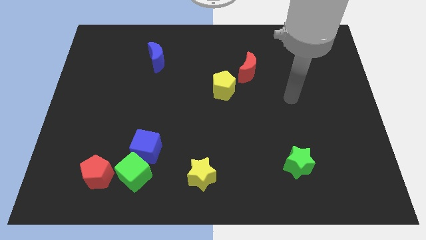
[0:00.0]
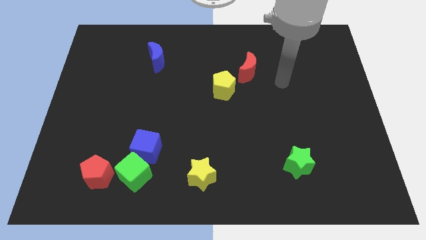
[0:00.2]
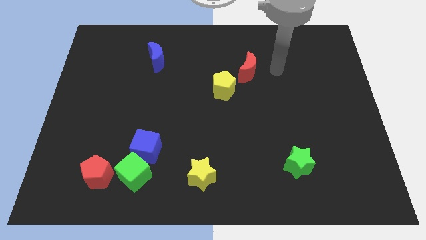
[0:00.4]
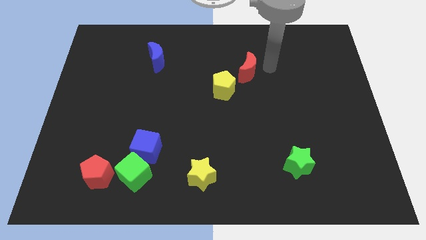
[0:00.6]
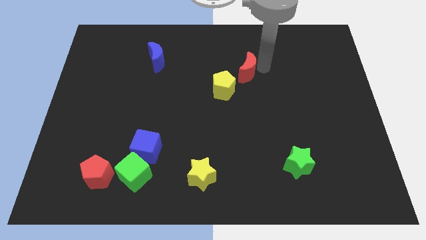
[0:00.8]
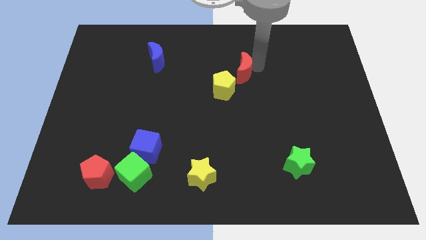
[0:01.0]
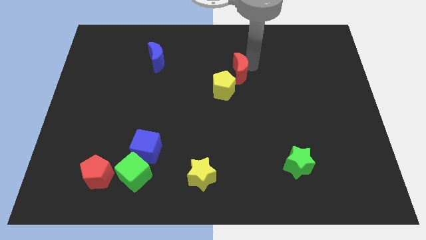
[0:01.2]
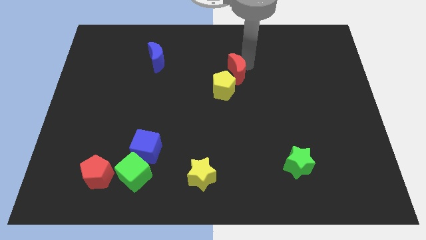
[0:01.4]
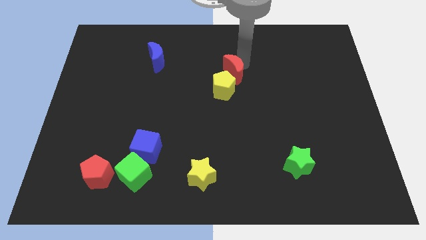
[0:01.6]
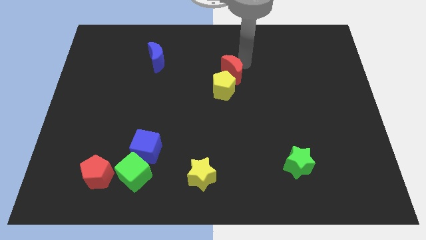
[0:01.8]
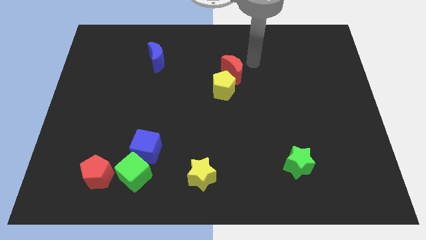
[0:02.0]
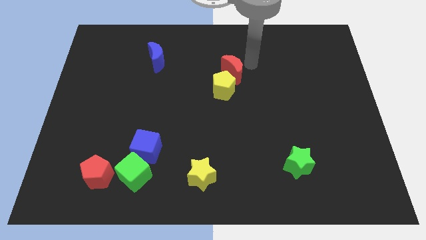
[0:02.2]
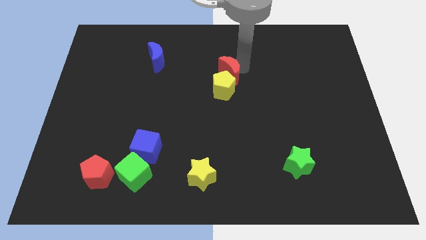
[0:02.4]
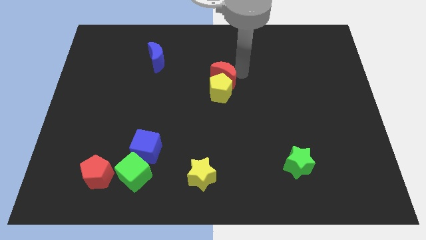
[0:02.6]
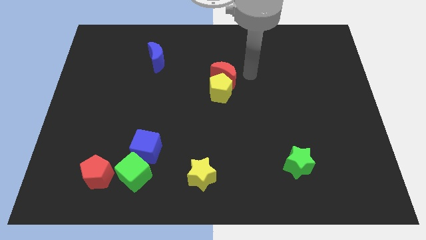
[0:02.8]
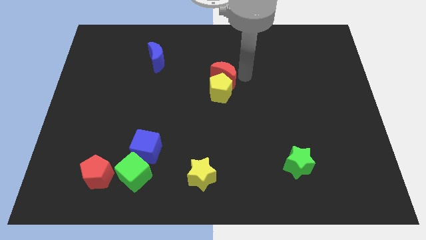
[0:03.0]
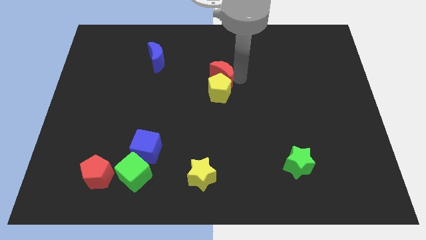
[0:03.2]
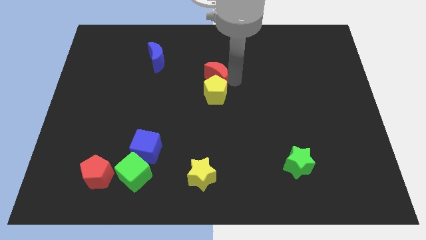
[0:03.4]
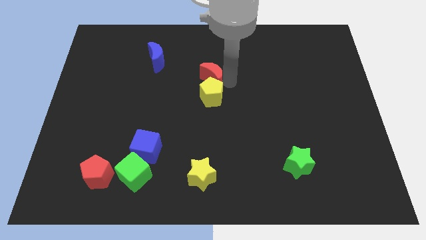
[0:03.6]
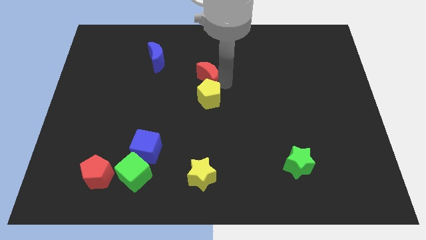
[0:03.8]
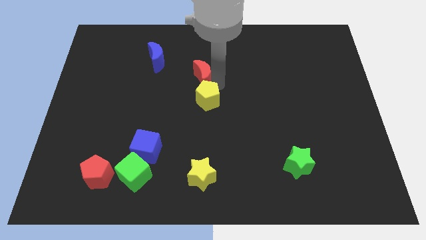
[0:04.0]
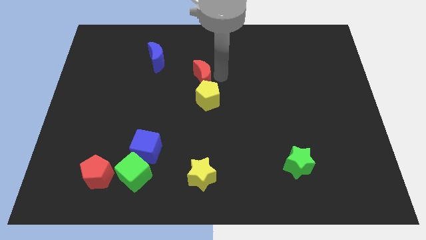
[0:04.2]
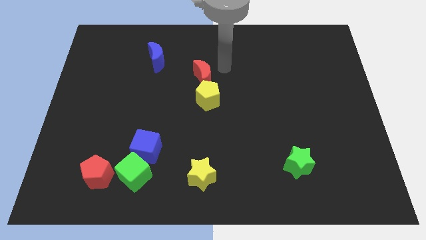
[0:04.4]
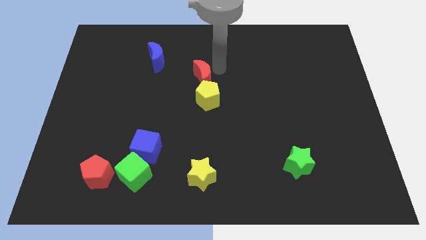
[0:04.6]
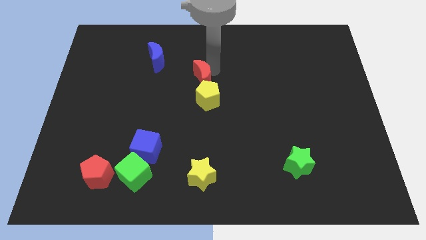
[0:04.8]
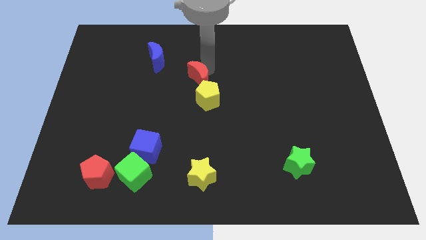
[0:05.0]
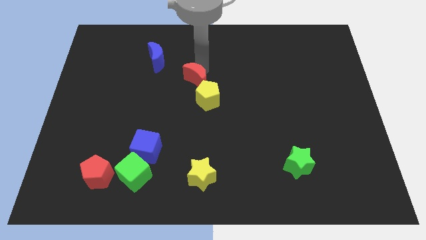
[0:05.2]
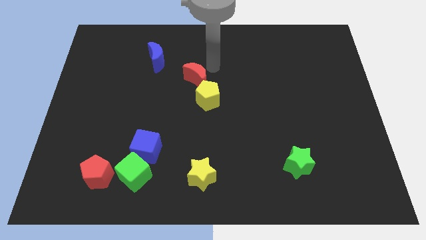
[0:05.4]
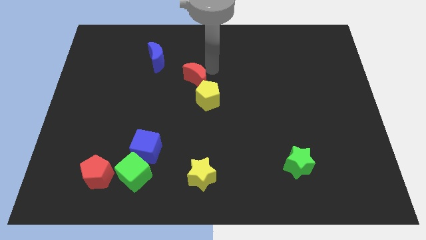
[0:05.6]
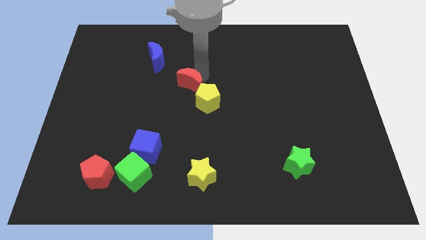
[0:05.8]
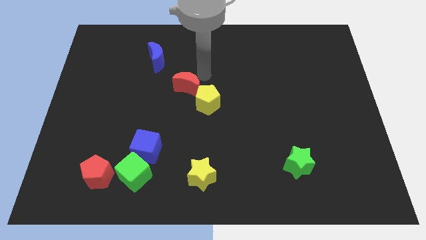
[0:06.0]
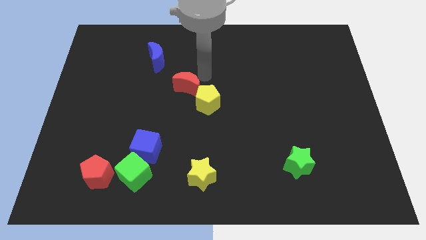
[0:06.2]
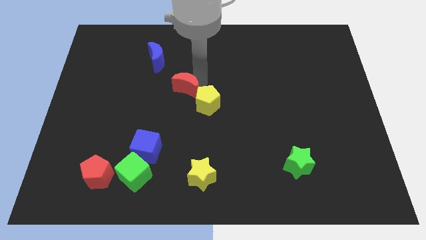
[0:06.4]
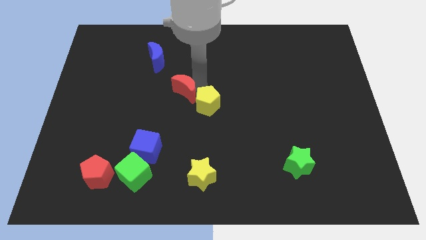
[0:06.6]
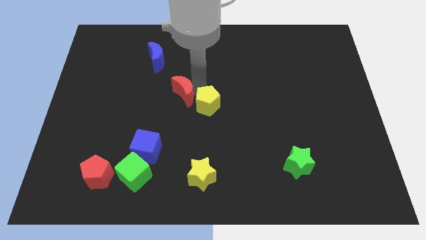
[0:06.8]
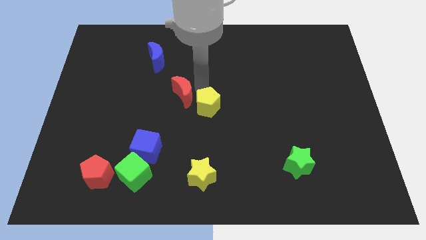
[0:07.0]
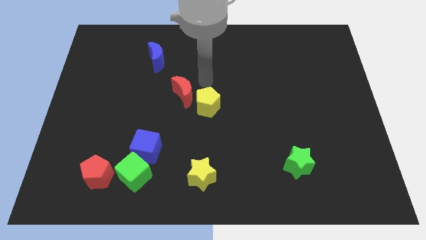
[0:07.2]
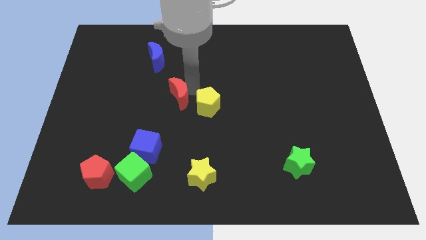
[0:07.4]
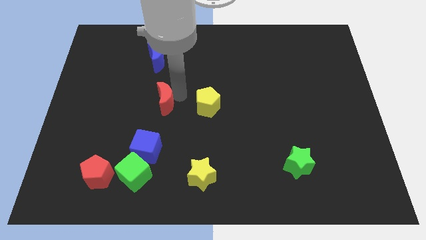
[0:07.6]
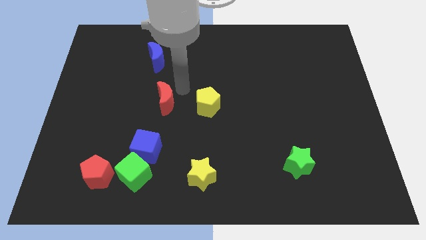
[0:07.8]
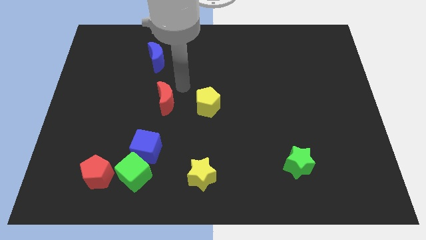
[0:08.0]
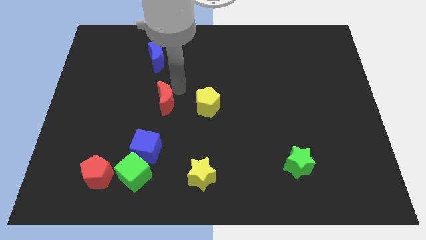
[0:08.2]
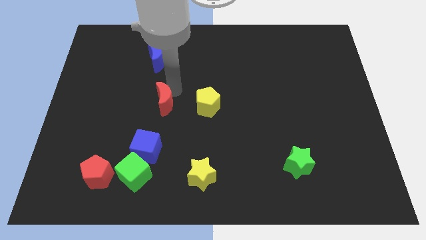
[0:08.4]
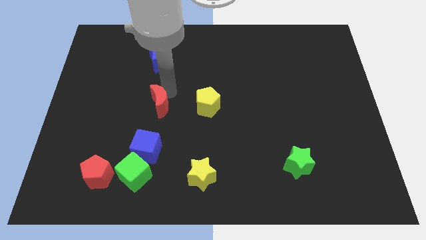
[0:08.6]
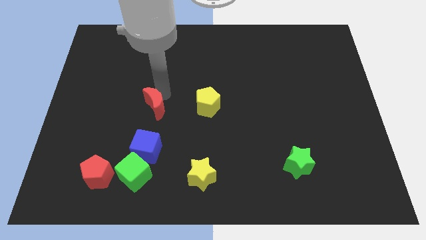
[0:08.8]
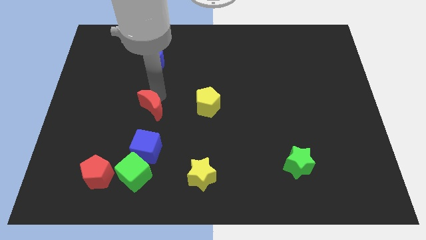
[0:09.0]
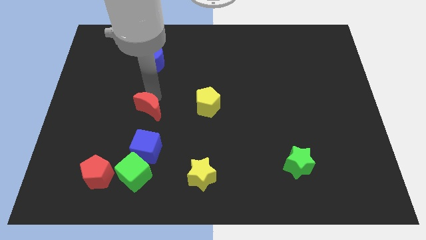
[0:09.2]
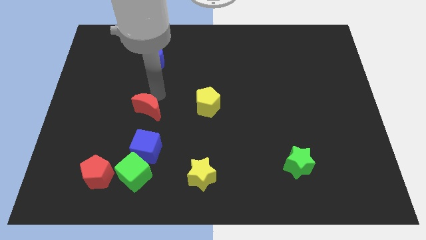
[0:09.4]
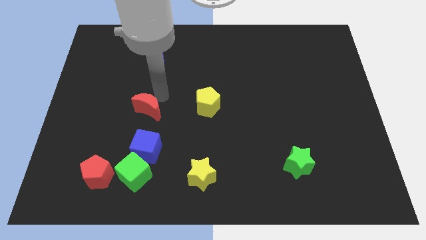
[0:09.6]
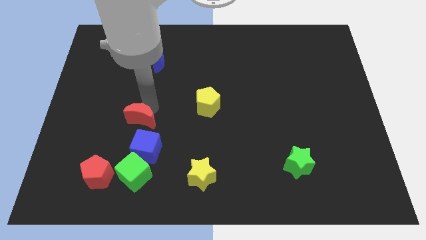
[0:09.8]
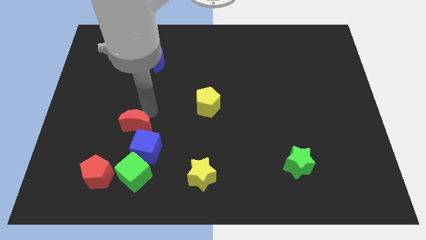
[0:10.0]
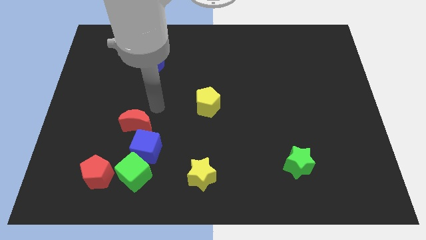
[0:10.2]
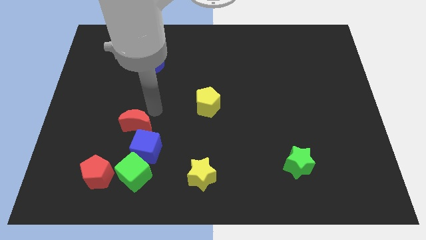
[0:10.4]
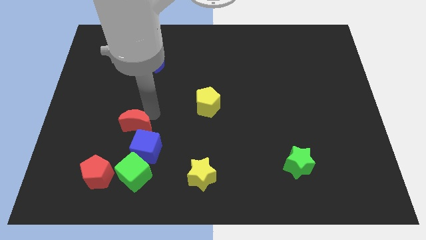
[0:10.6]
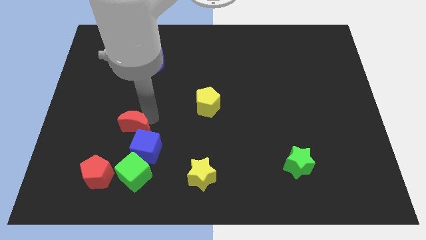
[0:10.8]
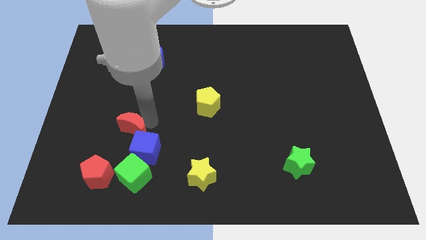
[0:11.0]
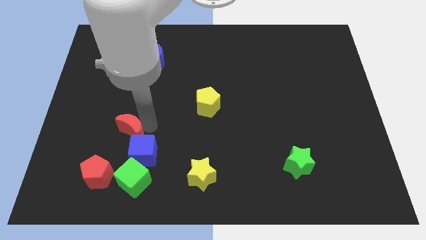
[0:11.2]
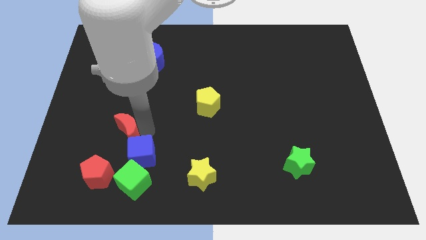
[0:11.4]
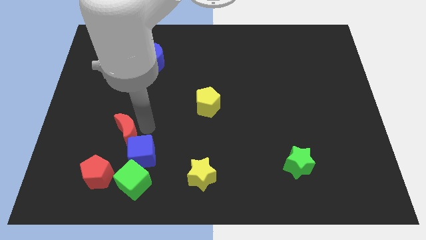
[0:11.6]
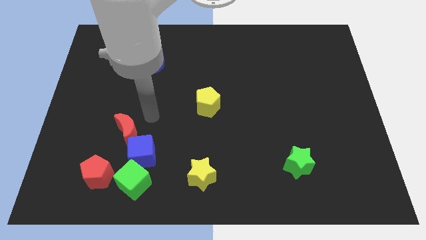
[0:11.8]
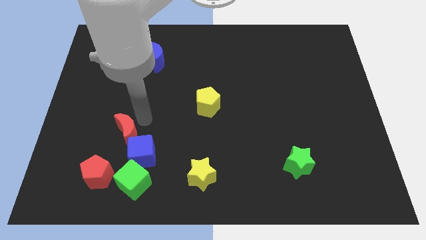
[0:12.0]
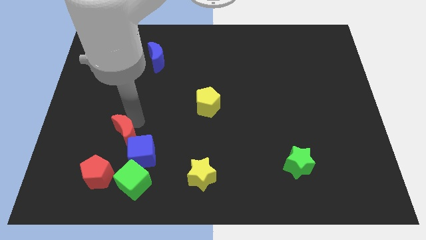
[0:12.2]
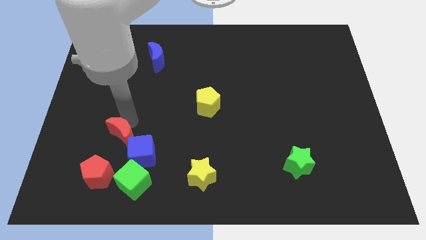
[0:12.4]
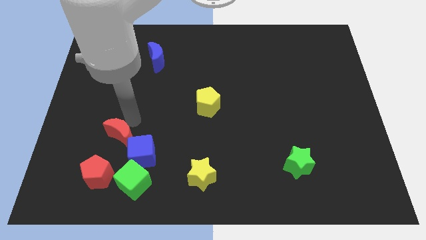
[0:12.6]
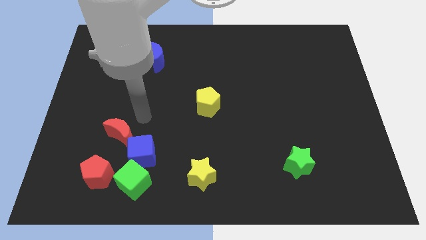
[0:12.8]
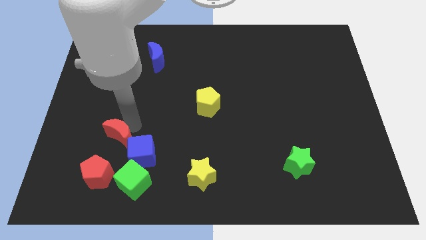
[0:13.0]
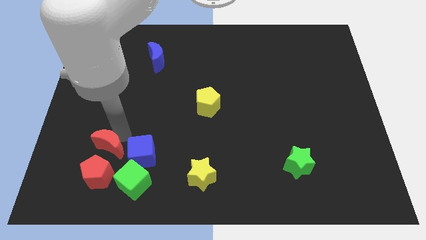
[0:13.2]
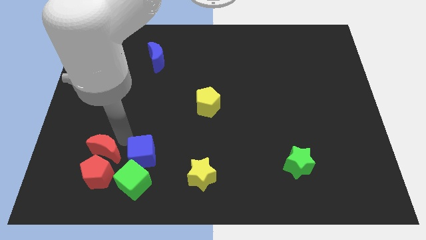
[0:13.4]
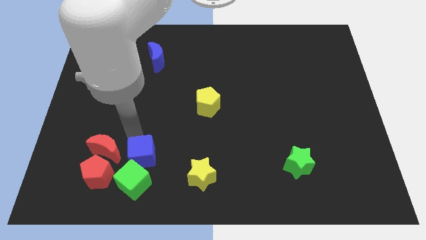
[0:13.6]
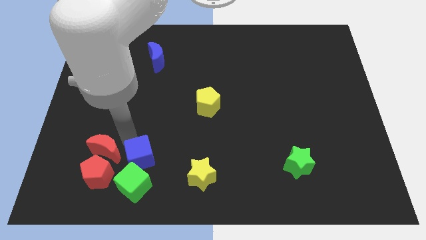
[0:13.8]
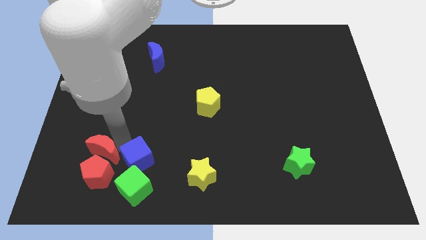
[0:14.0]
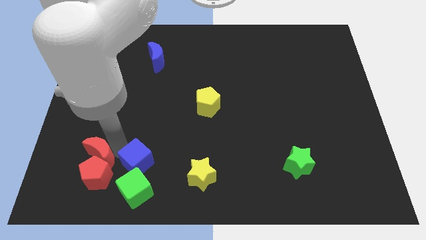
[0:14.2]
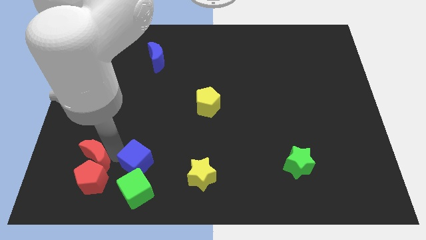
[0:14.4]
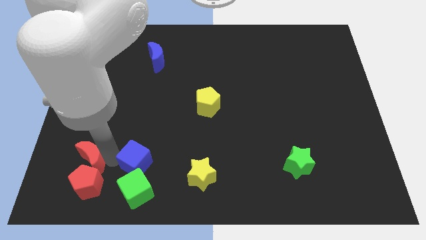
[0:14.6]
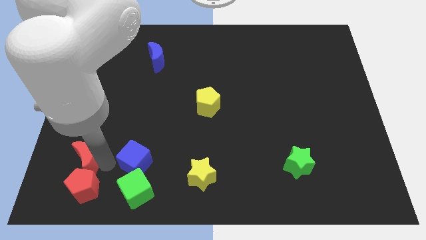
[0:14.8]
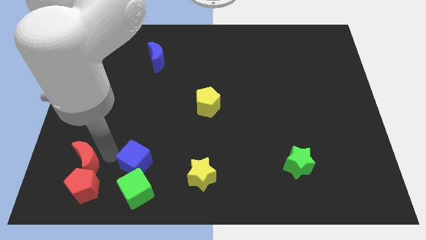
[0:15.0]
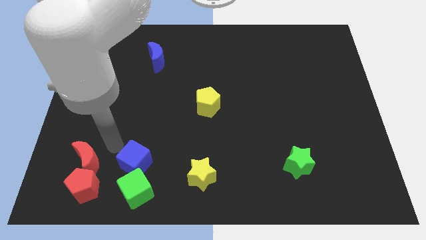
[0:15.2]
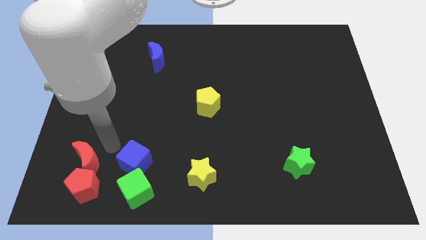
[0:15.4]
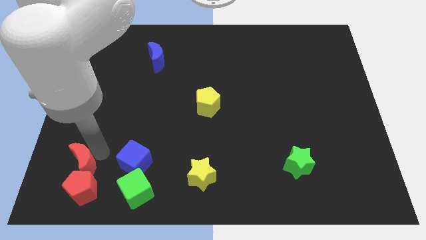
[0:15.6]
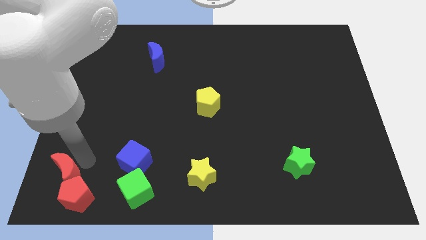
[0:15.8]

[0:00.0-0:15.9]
move the red moon to the bottom left
